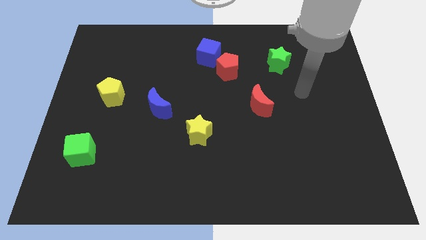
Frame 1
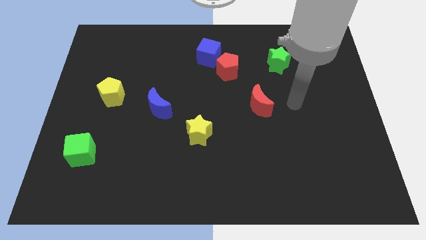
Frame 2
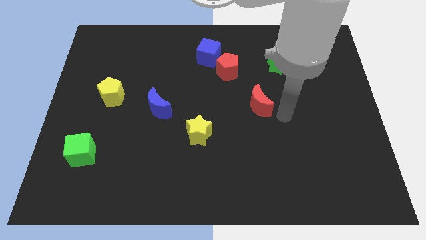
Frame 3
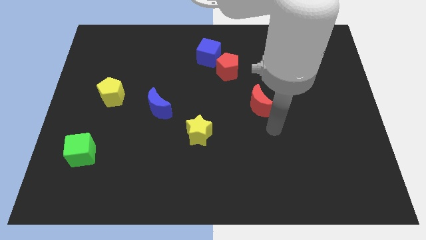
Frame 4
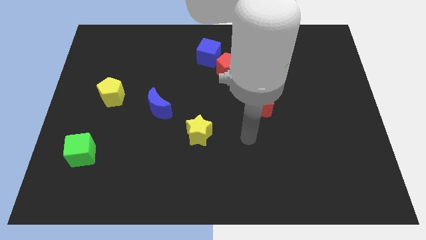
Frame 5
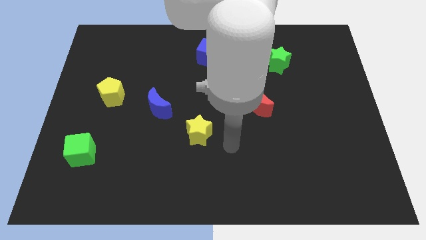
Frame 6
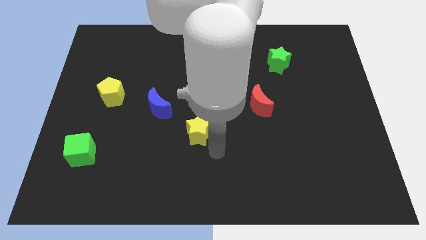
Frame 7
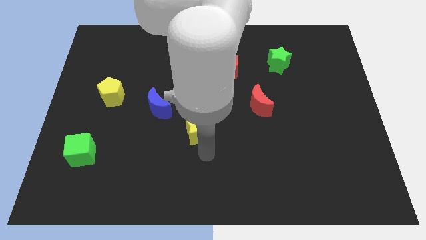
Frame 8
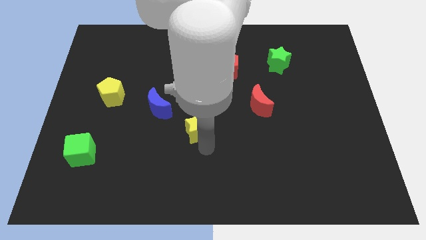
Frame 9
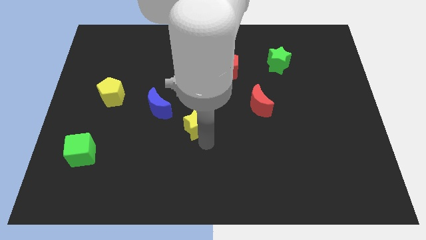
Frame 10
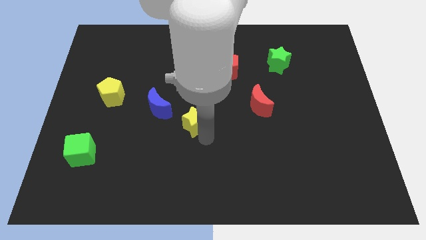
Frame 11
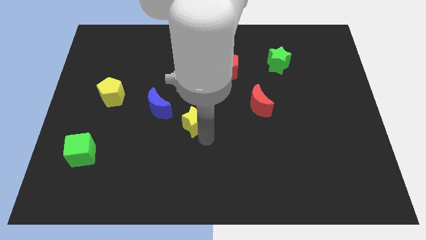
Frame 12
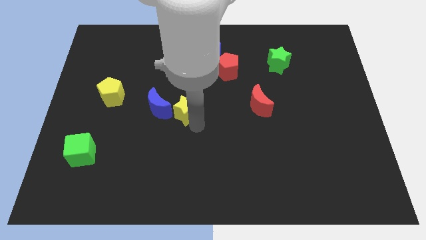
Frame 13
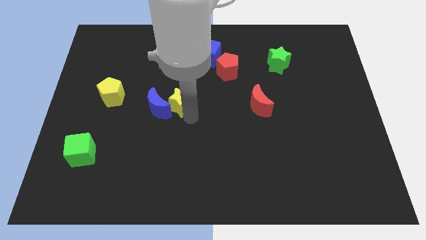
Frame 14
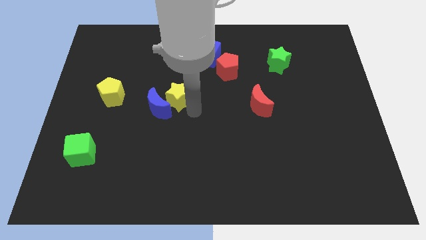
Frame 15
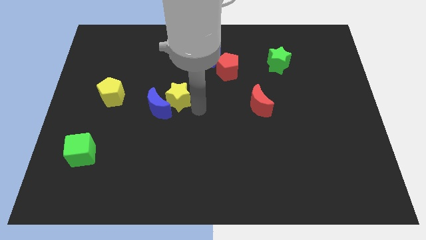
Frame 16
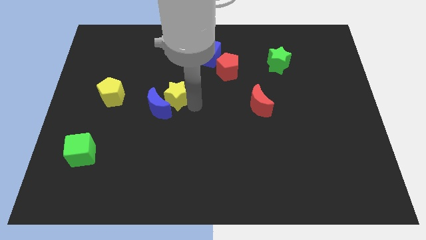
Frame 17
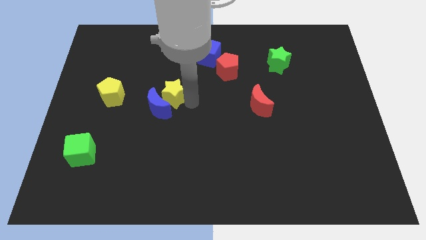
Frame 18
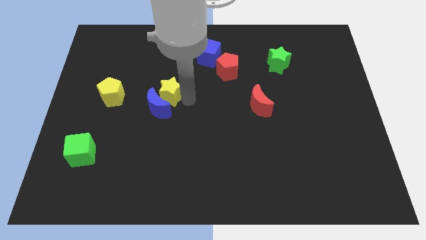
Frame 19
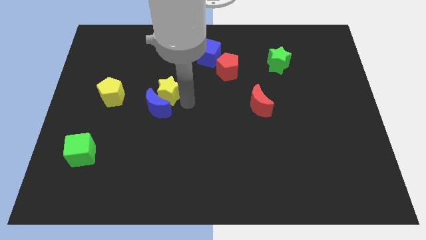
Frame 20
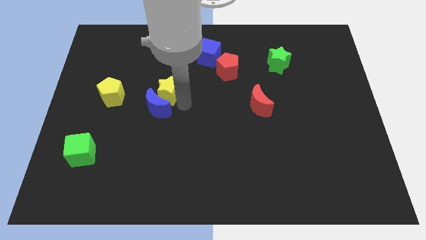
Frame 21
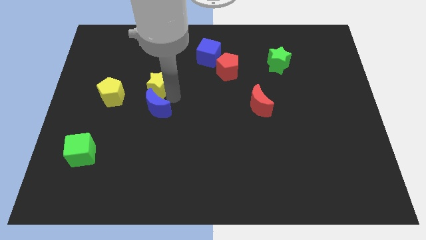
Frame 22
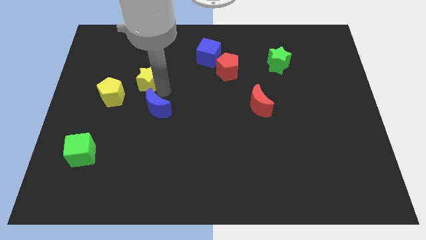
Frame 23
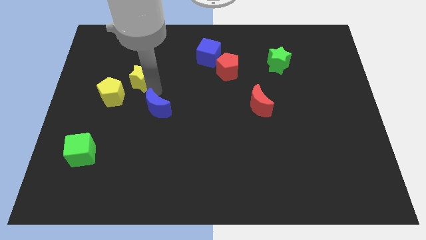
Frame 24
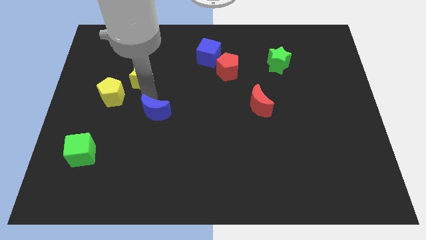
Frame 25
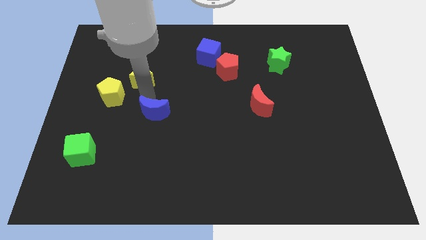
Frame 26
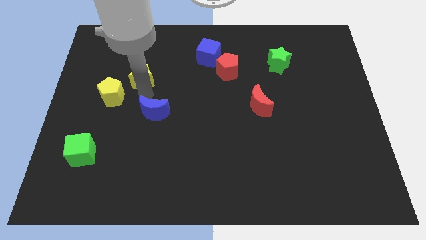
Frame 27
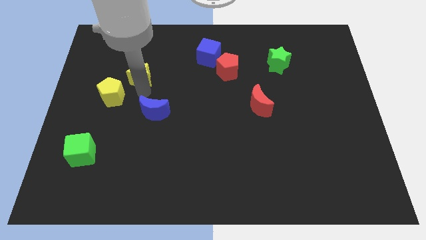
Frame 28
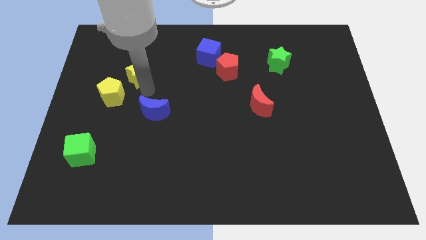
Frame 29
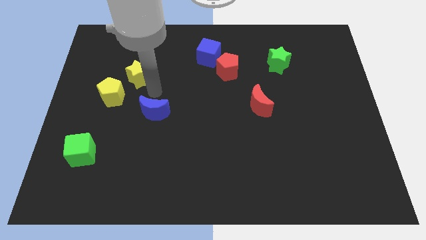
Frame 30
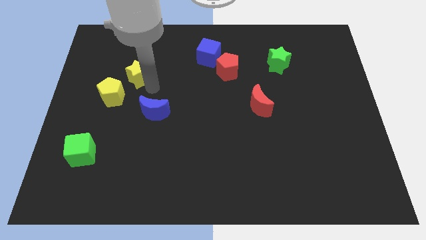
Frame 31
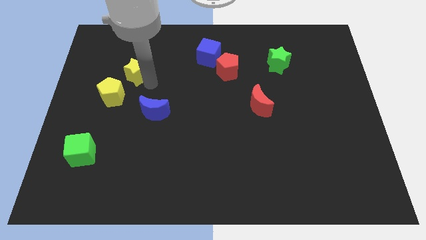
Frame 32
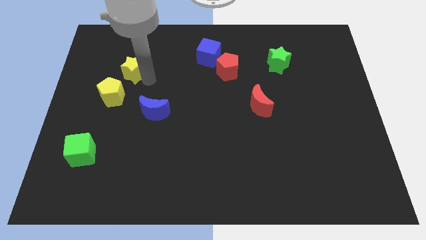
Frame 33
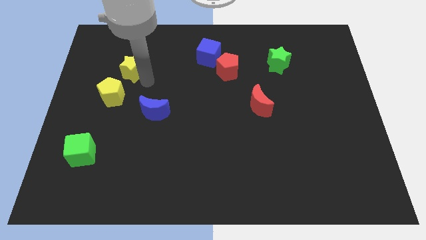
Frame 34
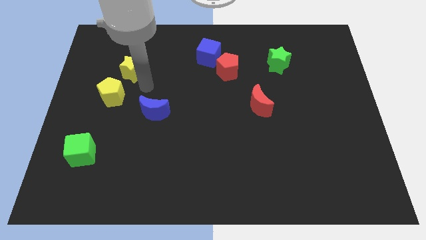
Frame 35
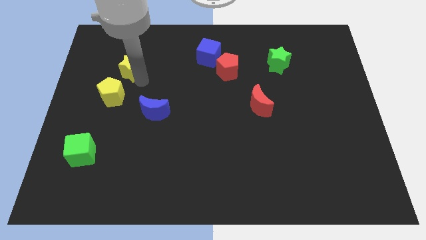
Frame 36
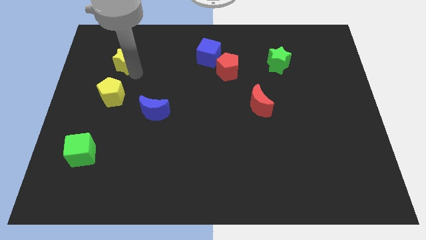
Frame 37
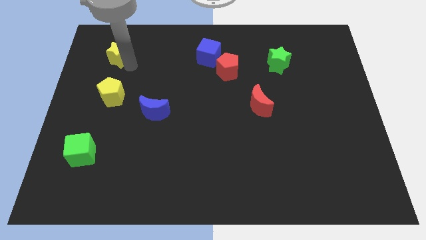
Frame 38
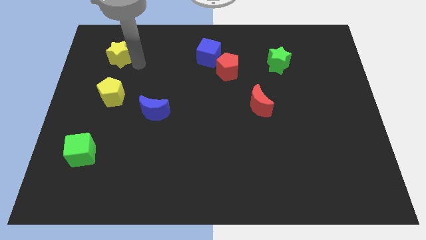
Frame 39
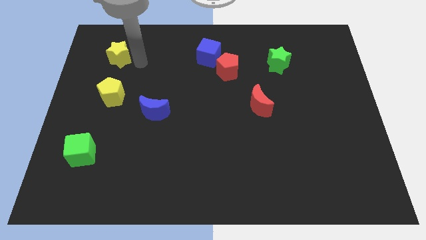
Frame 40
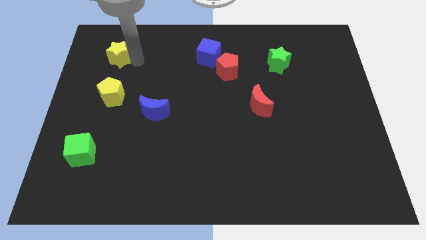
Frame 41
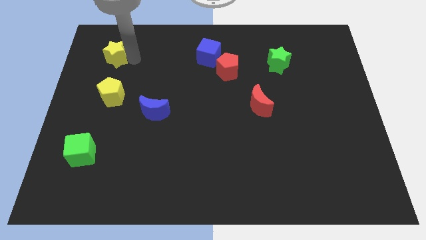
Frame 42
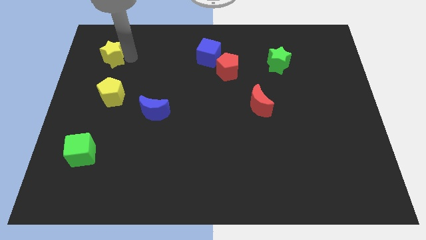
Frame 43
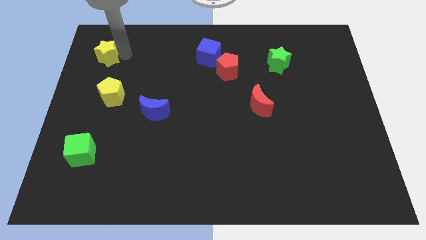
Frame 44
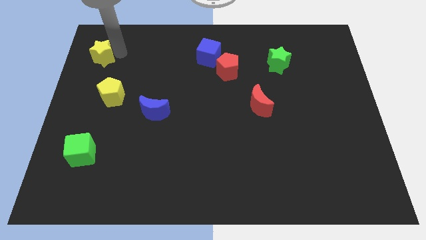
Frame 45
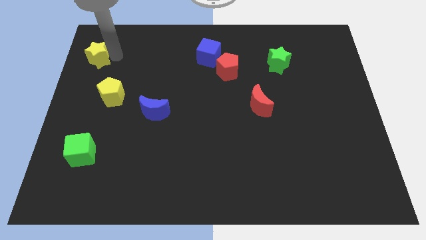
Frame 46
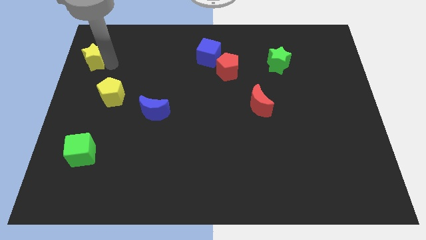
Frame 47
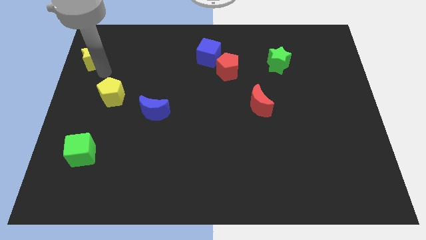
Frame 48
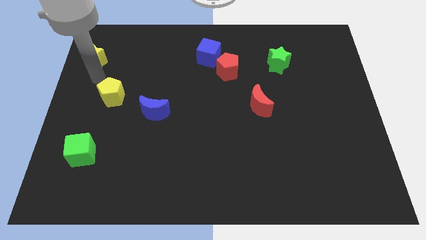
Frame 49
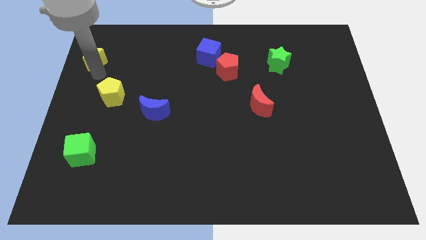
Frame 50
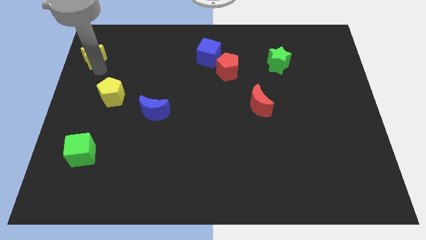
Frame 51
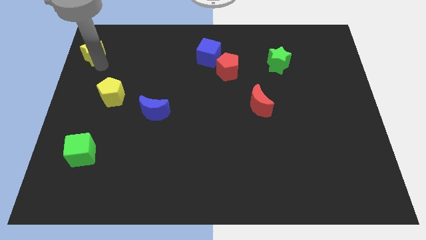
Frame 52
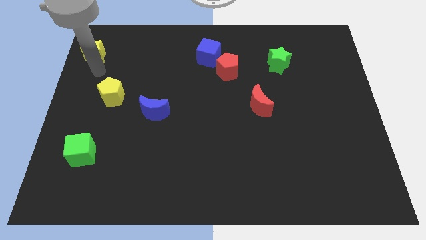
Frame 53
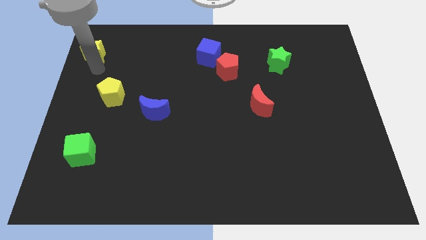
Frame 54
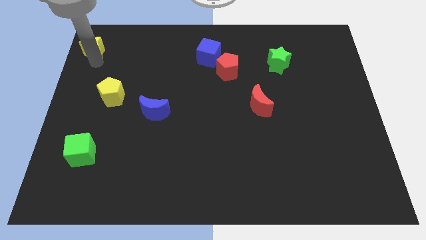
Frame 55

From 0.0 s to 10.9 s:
move the yellow star to the top left corner

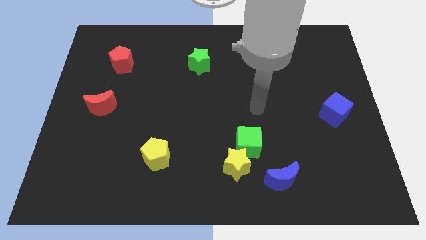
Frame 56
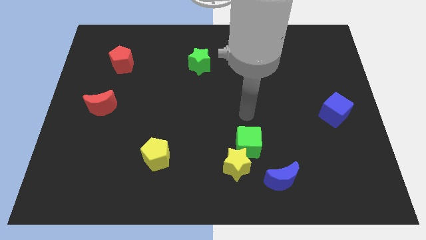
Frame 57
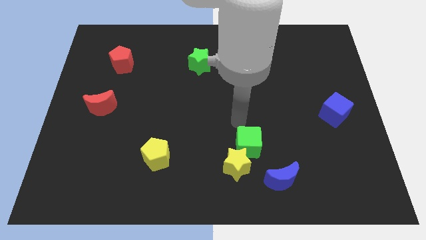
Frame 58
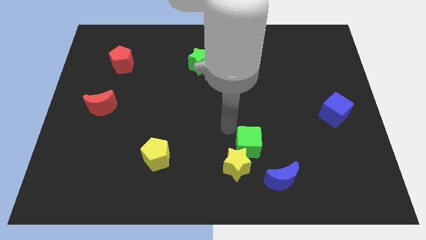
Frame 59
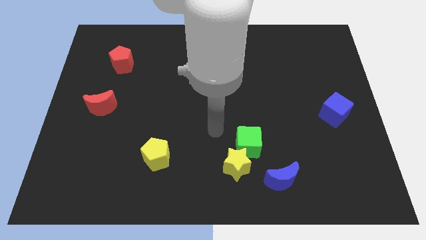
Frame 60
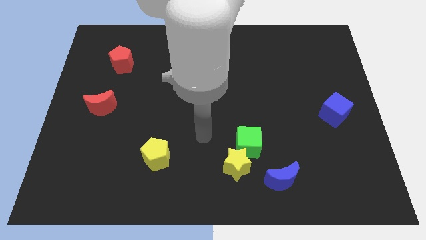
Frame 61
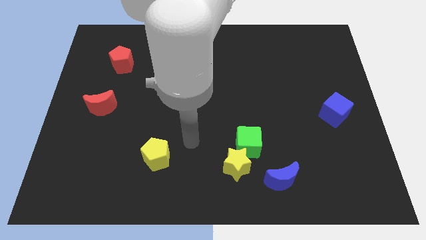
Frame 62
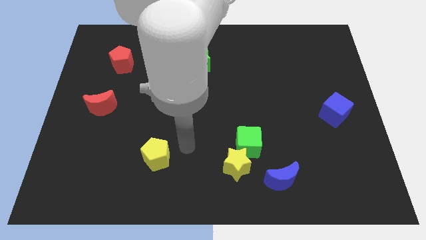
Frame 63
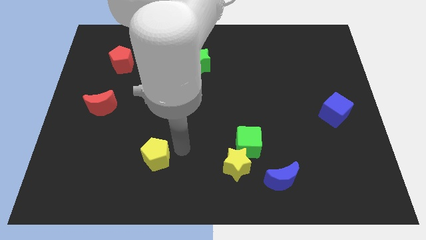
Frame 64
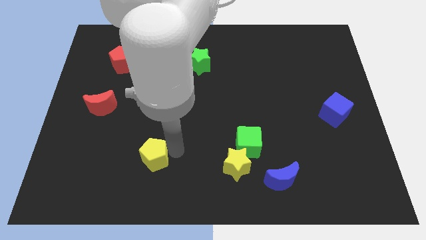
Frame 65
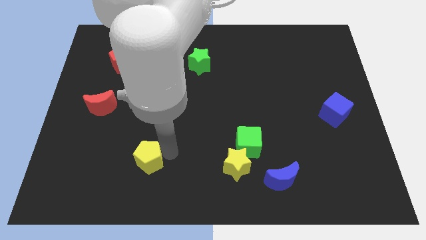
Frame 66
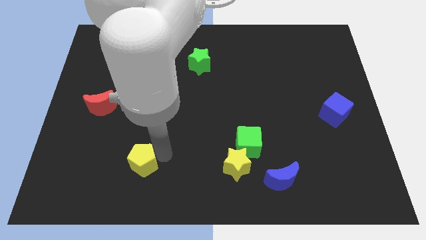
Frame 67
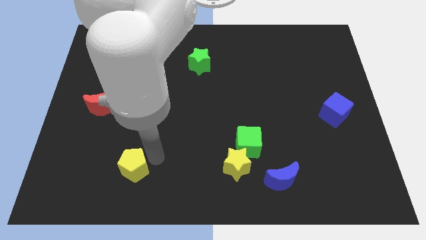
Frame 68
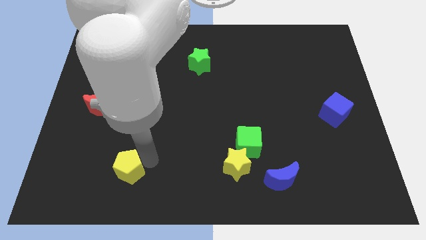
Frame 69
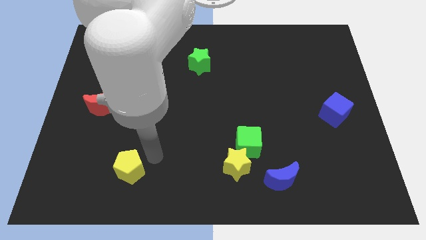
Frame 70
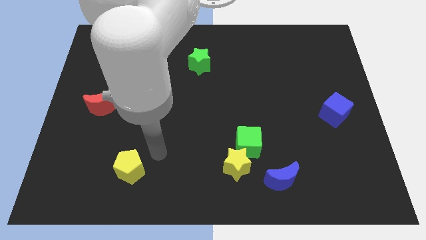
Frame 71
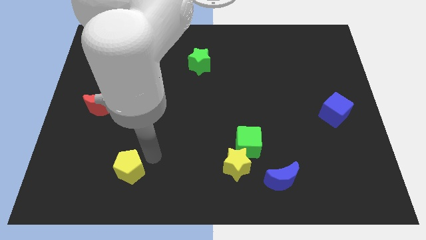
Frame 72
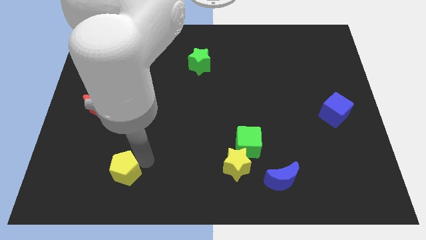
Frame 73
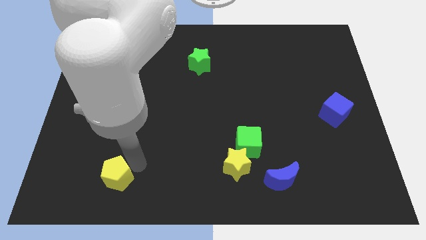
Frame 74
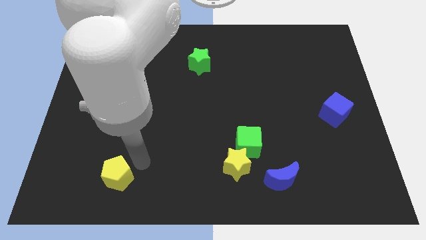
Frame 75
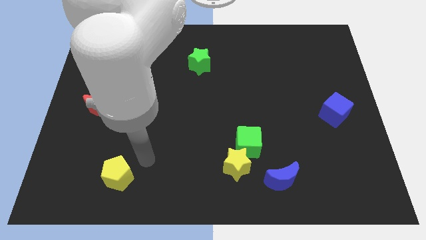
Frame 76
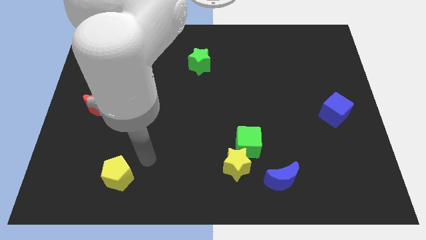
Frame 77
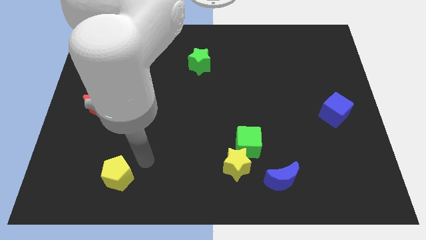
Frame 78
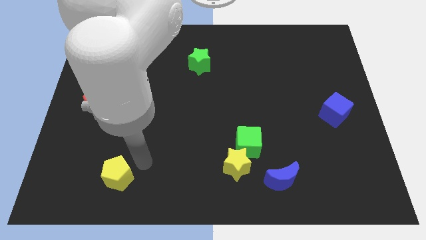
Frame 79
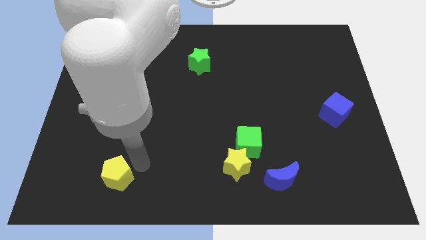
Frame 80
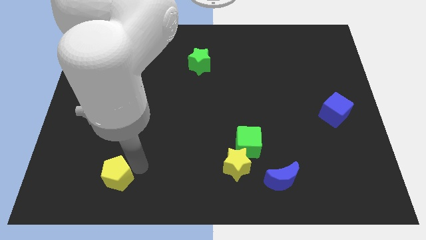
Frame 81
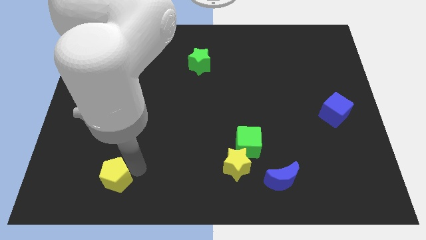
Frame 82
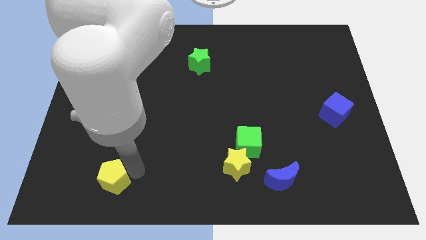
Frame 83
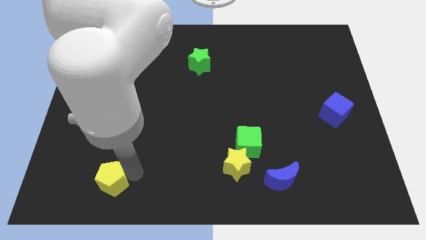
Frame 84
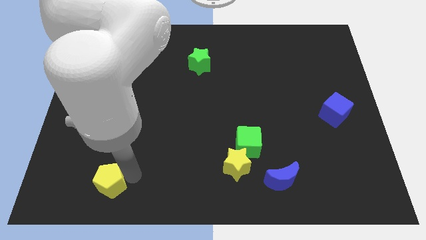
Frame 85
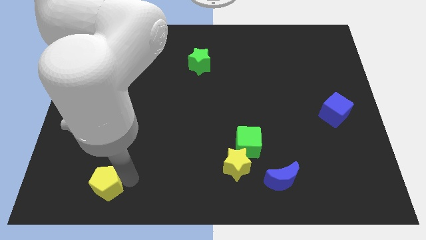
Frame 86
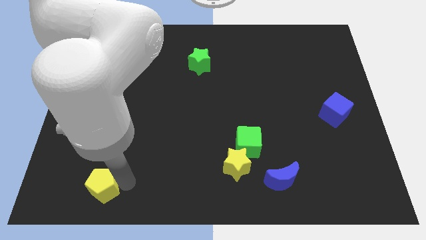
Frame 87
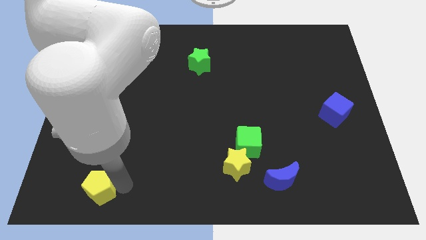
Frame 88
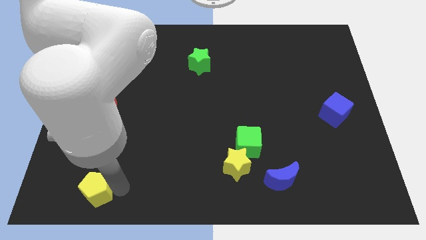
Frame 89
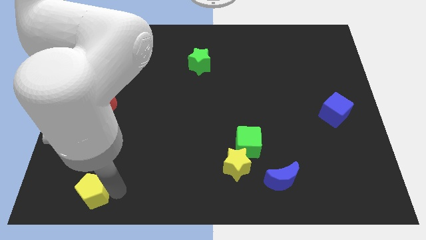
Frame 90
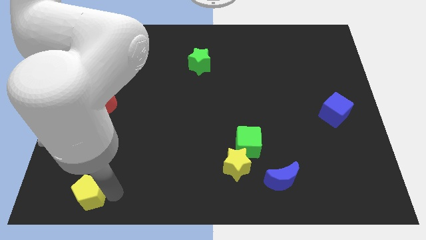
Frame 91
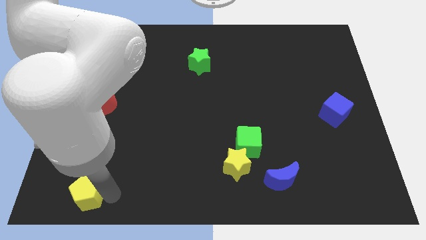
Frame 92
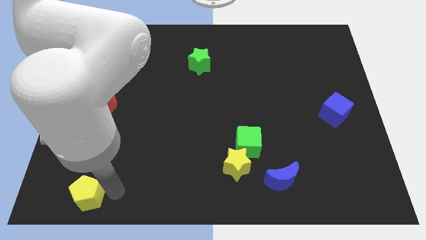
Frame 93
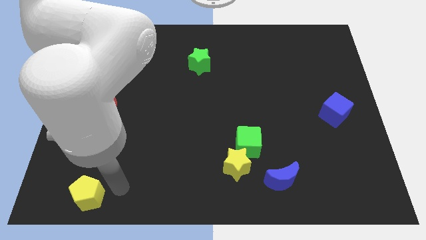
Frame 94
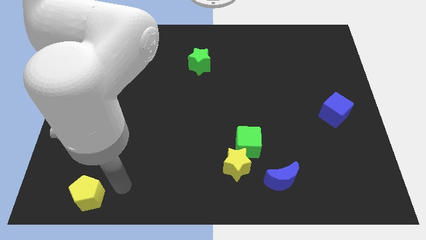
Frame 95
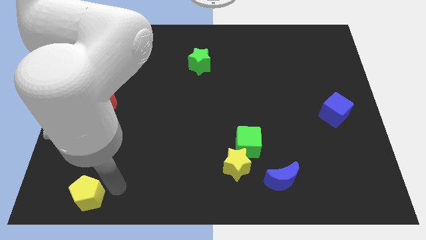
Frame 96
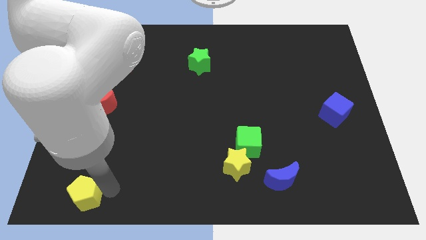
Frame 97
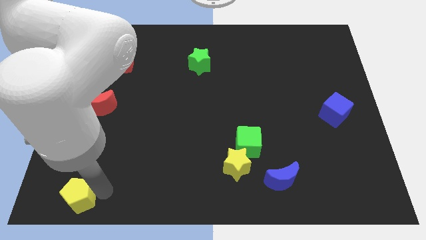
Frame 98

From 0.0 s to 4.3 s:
put the yellow pentagon to the bottom left corner
